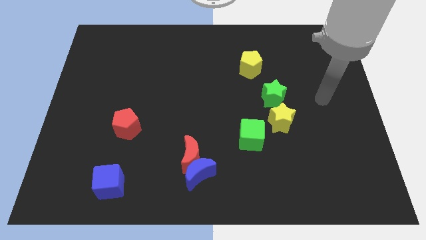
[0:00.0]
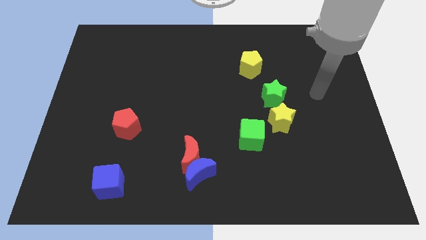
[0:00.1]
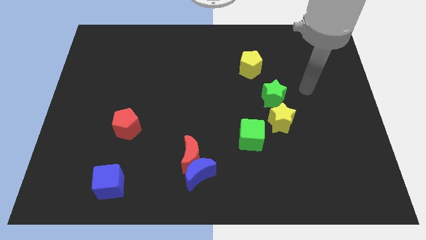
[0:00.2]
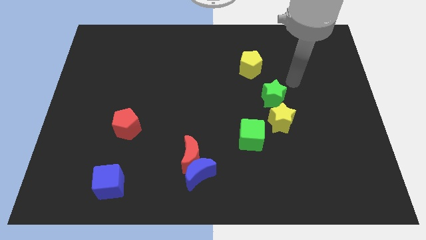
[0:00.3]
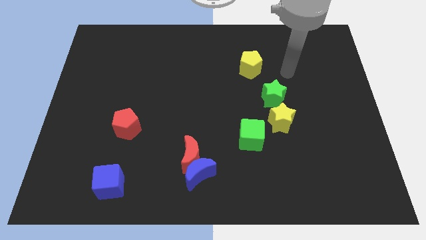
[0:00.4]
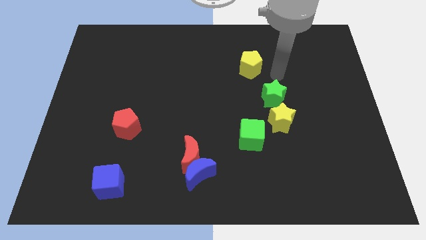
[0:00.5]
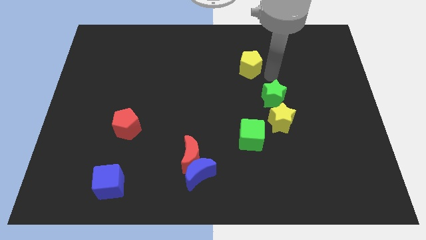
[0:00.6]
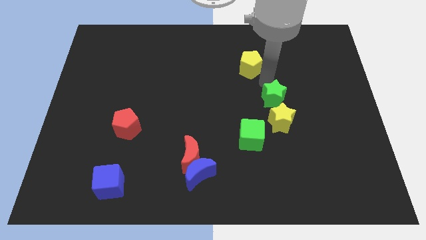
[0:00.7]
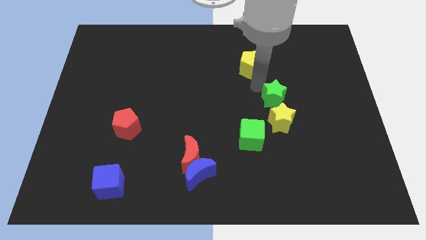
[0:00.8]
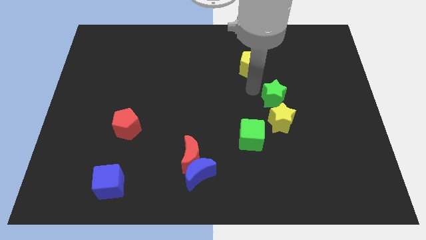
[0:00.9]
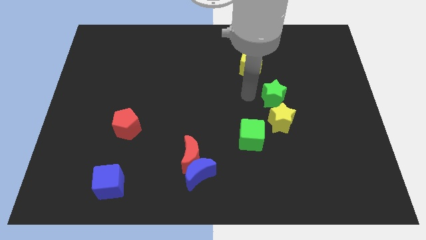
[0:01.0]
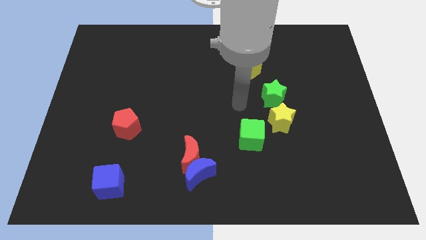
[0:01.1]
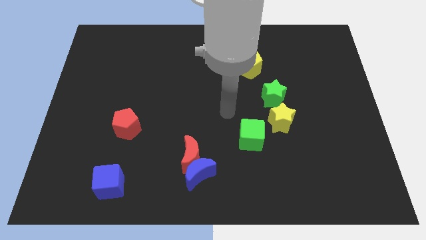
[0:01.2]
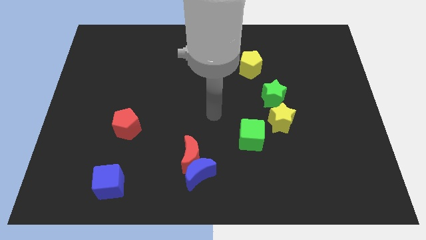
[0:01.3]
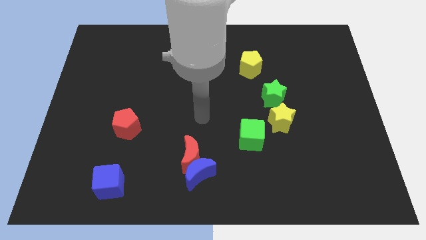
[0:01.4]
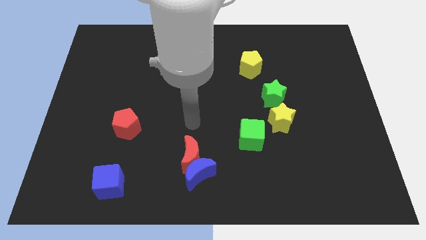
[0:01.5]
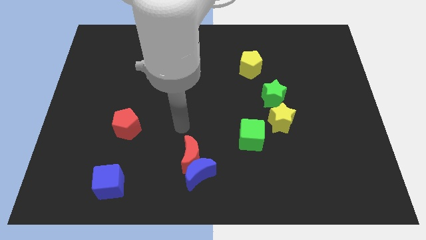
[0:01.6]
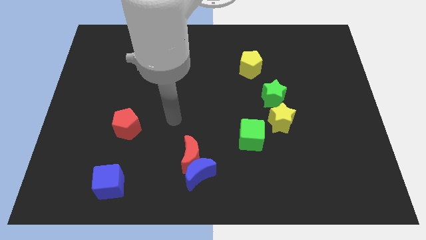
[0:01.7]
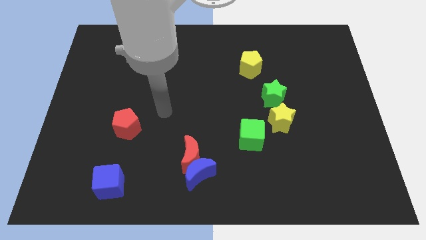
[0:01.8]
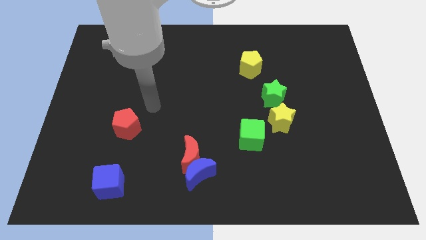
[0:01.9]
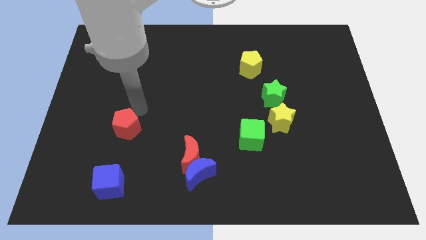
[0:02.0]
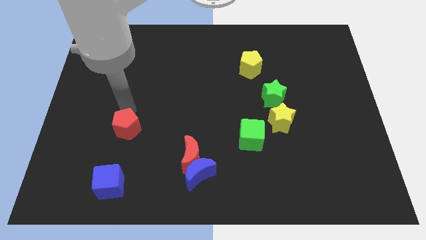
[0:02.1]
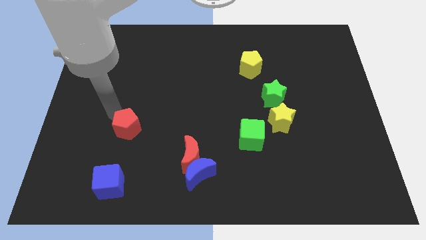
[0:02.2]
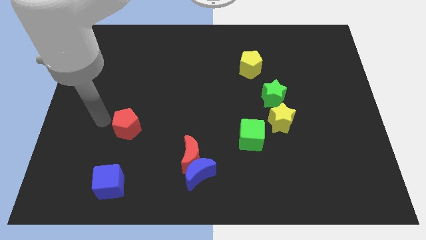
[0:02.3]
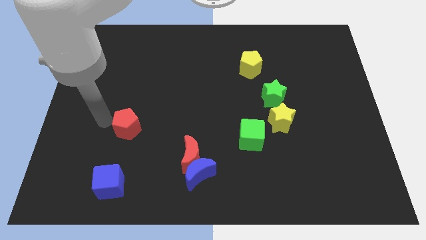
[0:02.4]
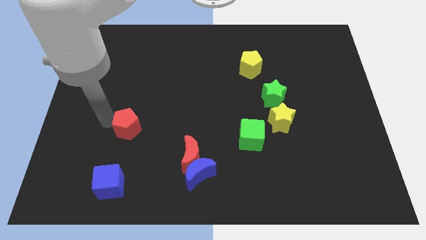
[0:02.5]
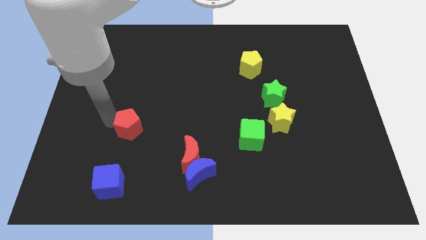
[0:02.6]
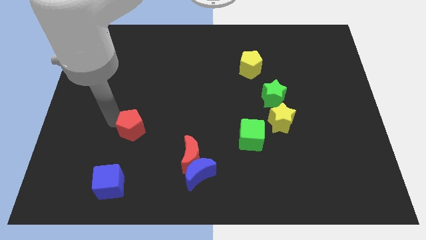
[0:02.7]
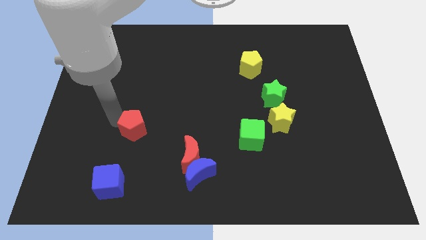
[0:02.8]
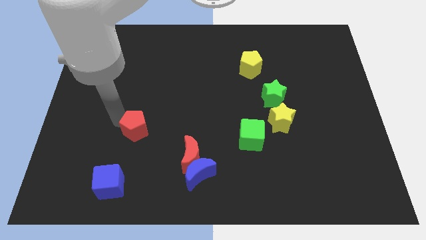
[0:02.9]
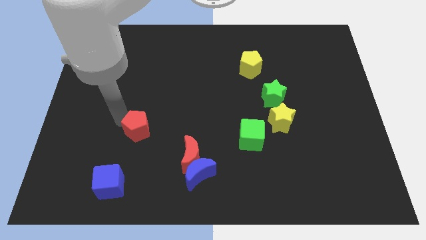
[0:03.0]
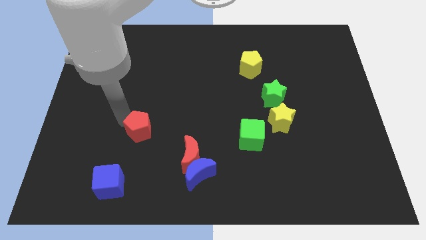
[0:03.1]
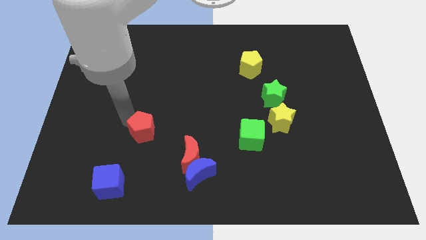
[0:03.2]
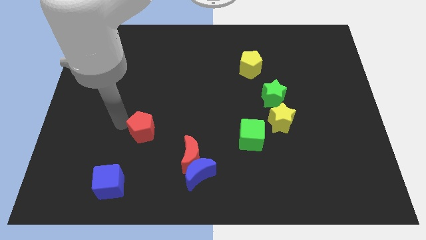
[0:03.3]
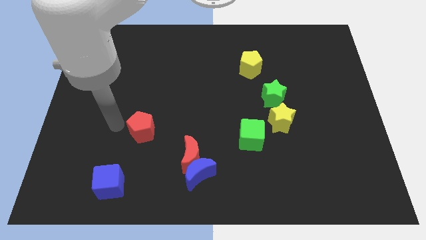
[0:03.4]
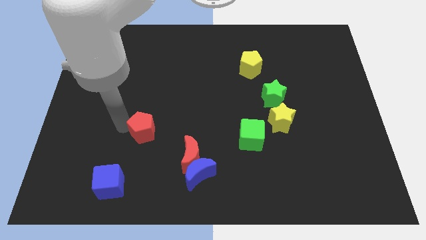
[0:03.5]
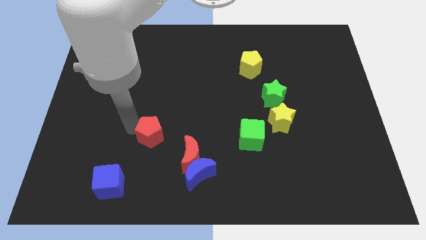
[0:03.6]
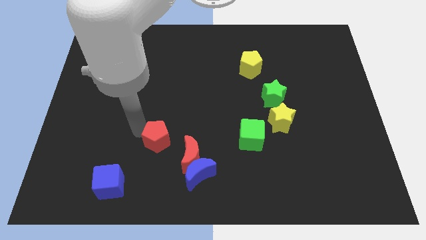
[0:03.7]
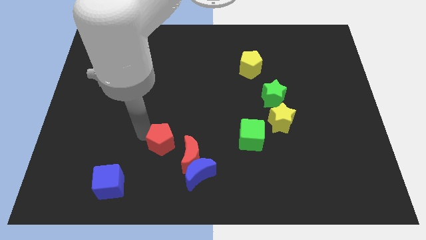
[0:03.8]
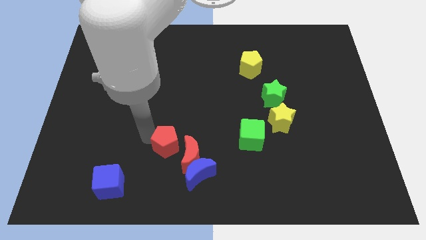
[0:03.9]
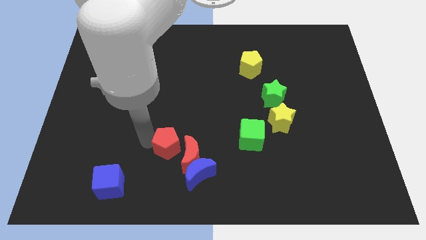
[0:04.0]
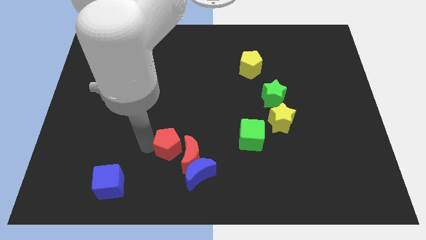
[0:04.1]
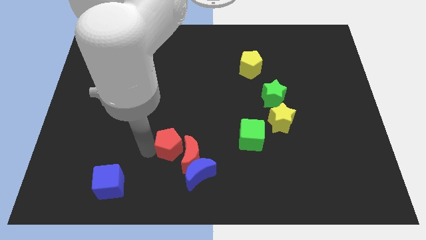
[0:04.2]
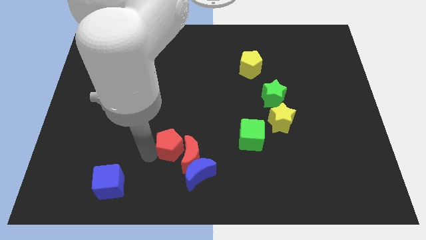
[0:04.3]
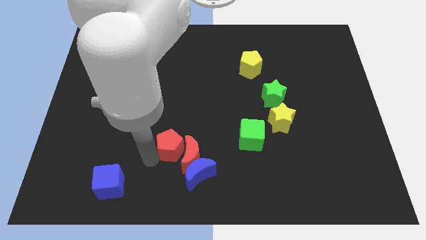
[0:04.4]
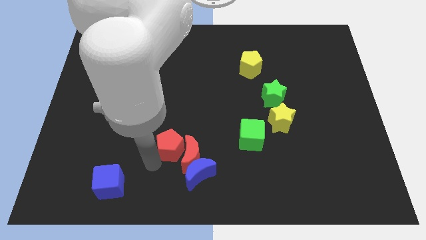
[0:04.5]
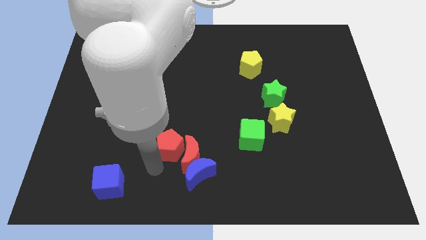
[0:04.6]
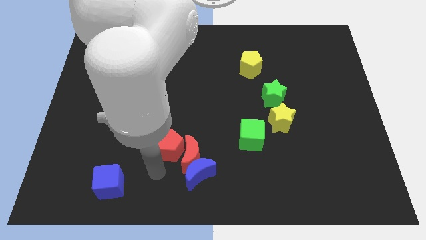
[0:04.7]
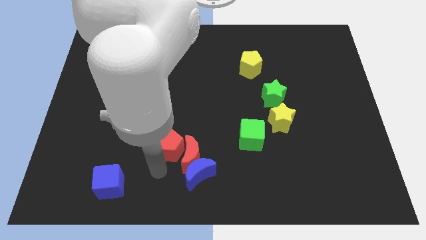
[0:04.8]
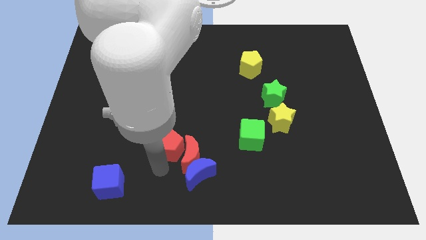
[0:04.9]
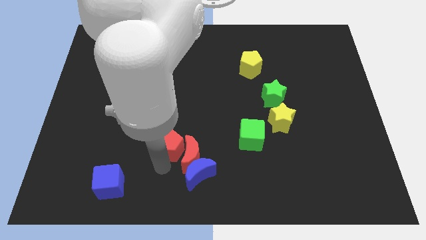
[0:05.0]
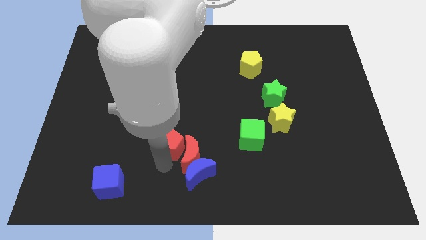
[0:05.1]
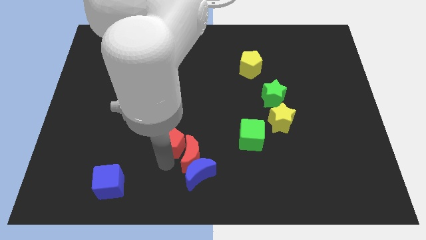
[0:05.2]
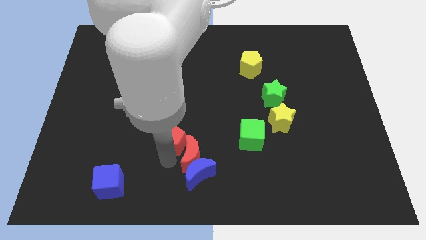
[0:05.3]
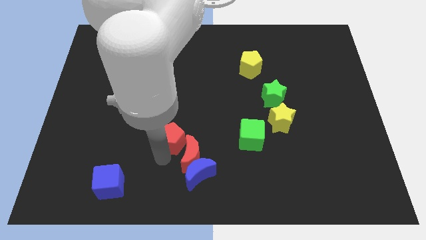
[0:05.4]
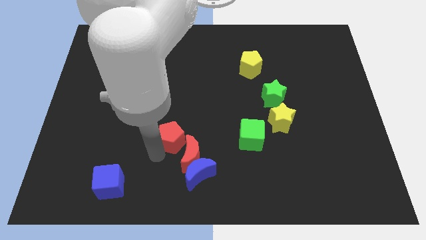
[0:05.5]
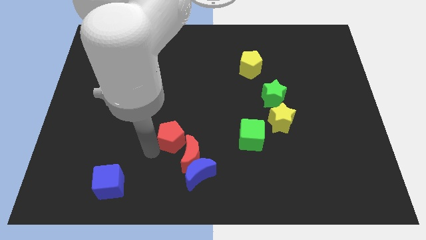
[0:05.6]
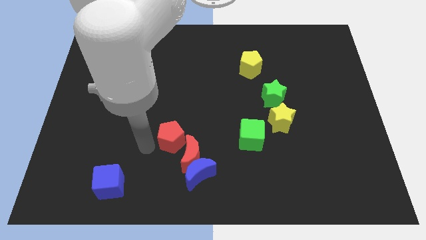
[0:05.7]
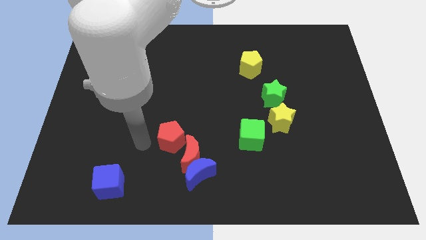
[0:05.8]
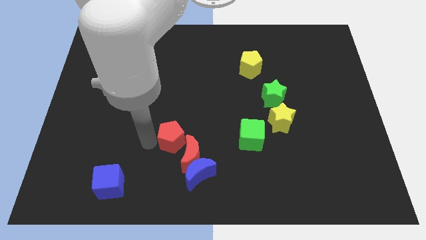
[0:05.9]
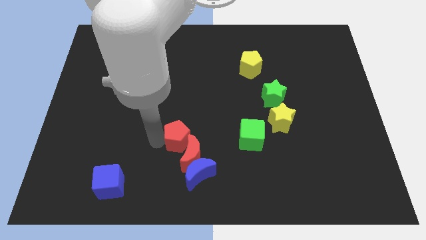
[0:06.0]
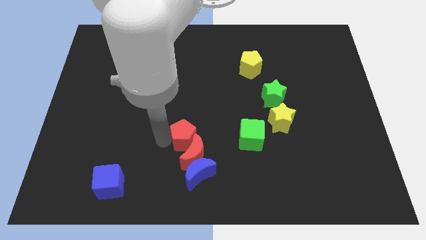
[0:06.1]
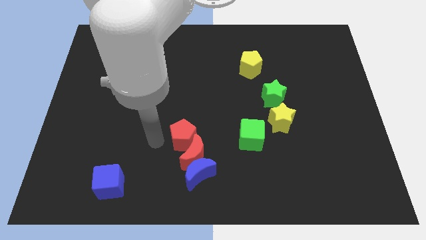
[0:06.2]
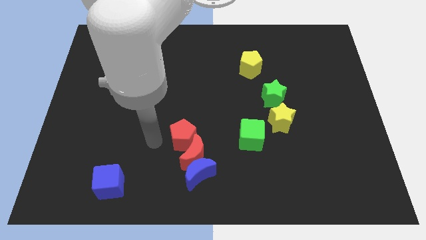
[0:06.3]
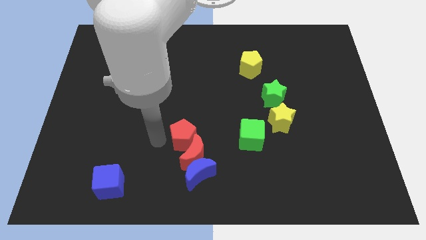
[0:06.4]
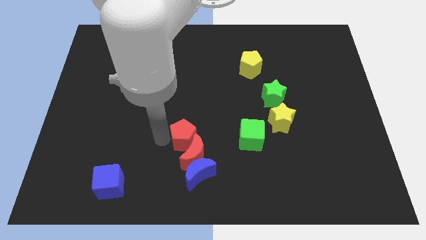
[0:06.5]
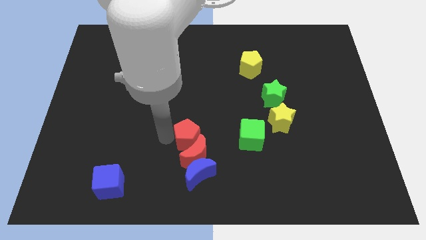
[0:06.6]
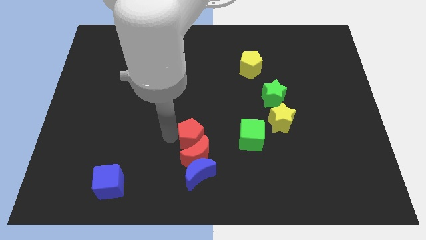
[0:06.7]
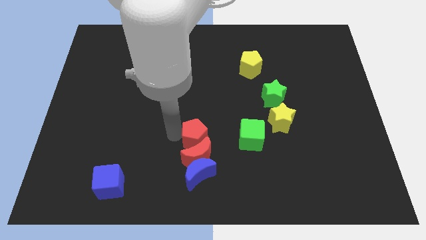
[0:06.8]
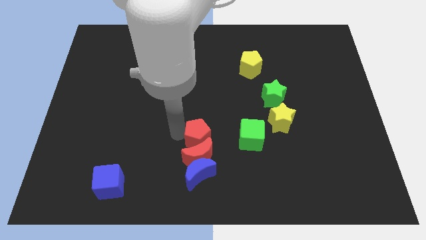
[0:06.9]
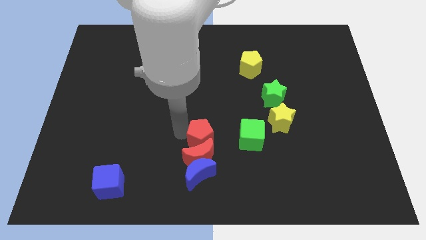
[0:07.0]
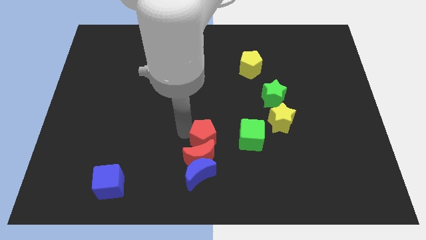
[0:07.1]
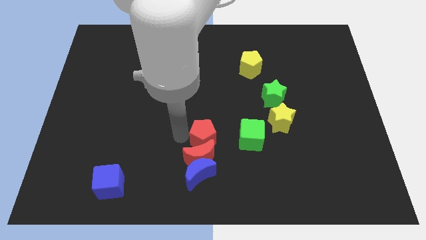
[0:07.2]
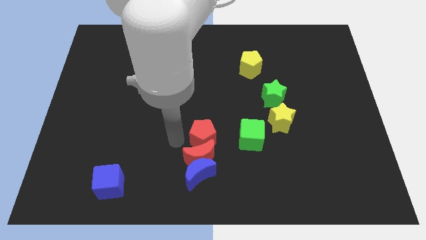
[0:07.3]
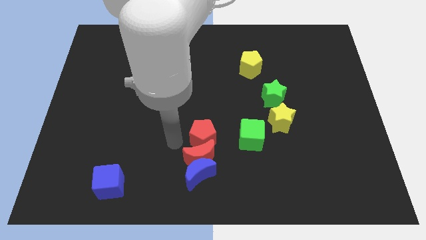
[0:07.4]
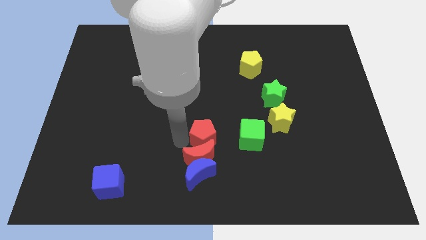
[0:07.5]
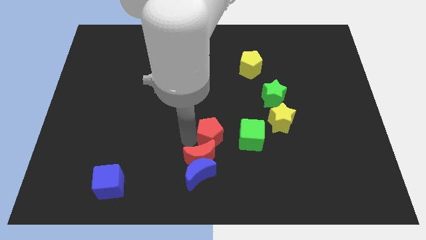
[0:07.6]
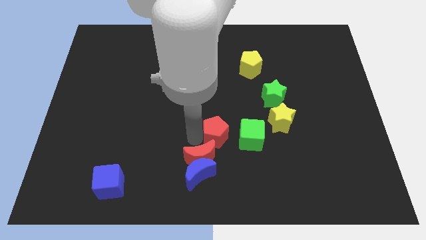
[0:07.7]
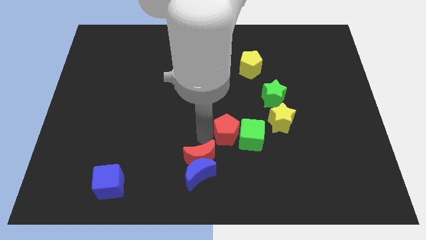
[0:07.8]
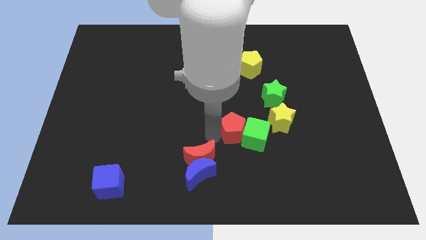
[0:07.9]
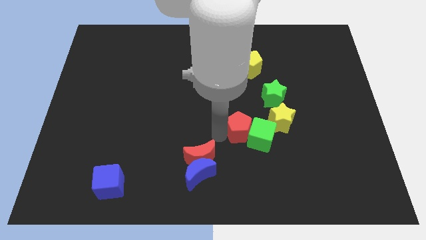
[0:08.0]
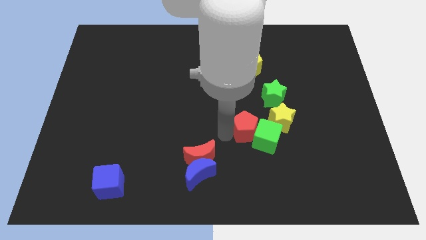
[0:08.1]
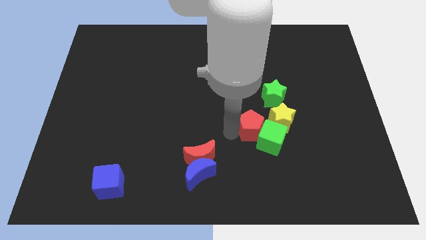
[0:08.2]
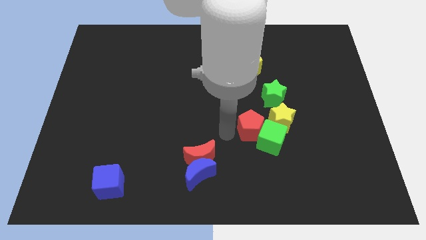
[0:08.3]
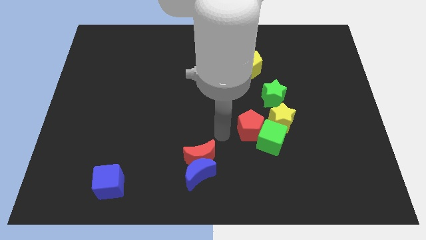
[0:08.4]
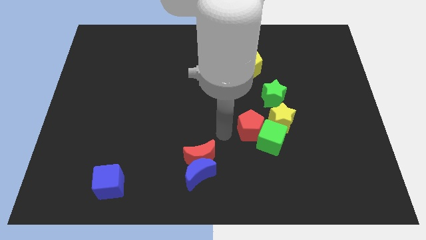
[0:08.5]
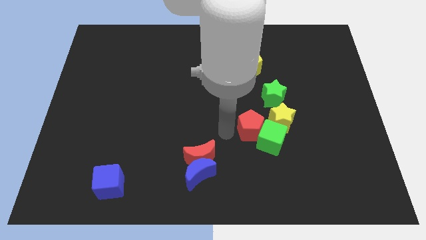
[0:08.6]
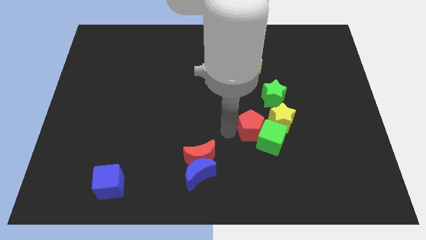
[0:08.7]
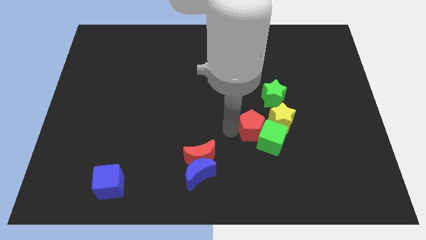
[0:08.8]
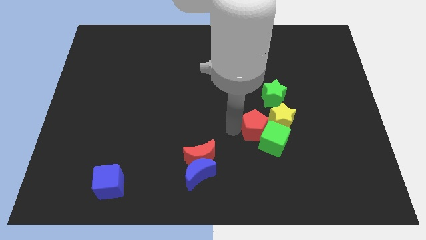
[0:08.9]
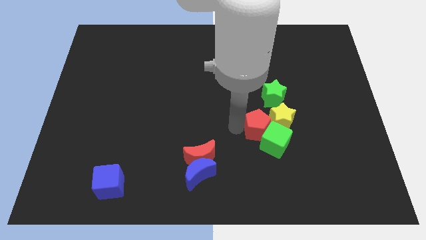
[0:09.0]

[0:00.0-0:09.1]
slide the red pentagon to the bottom of the green star
